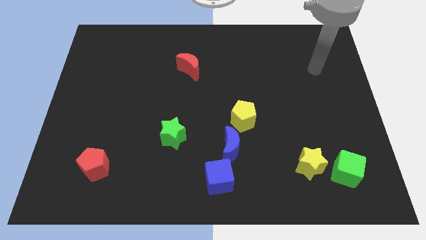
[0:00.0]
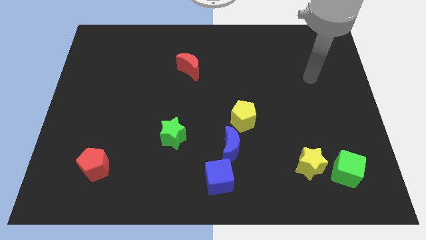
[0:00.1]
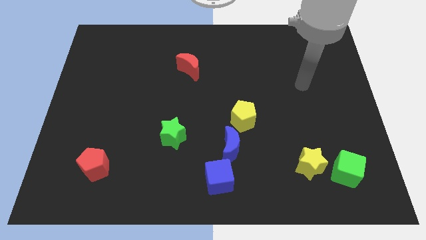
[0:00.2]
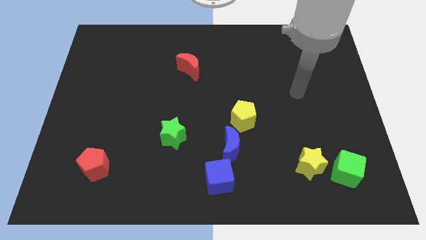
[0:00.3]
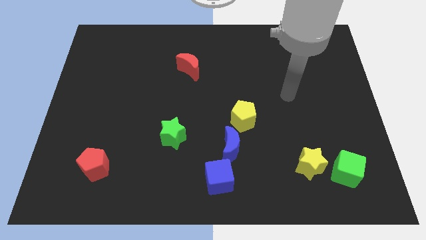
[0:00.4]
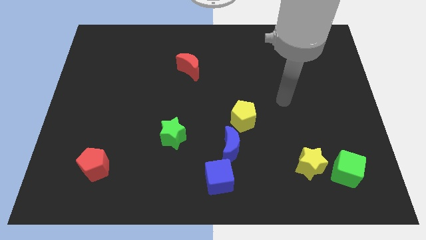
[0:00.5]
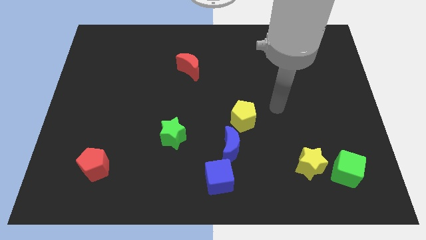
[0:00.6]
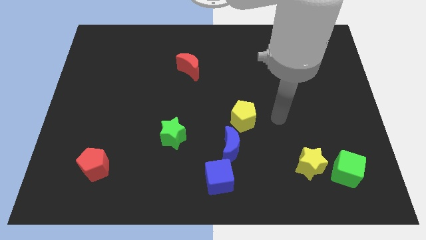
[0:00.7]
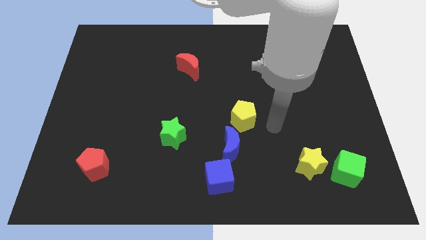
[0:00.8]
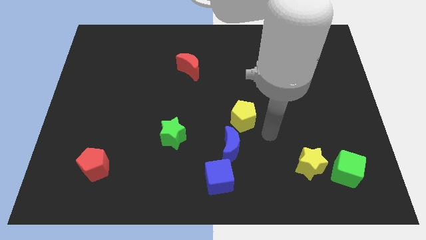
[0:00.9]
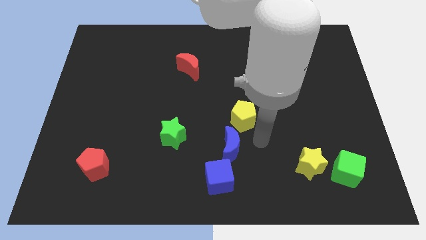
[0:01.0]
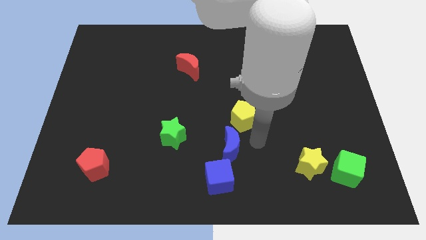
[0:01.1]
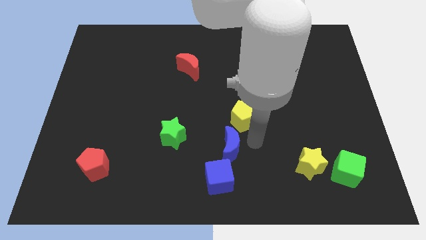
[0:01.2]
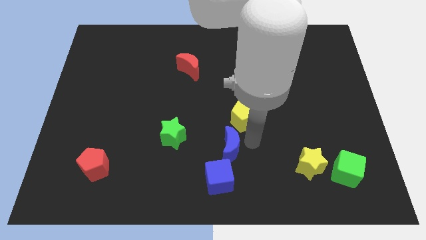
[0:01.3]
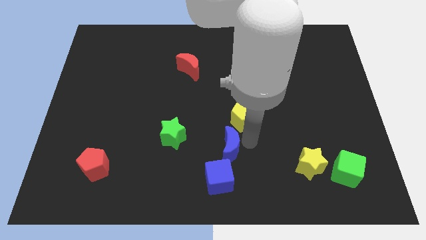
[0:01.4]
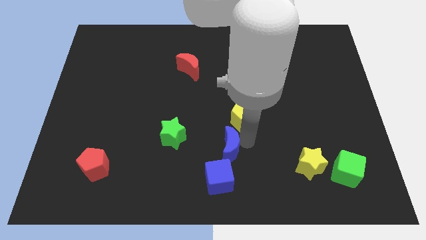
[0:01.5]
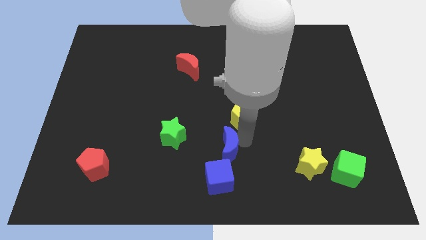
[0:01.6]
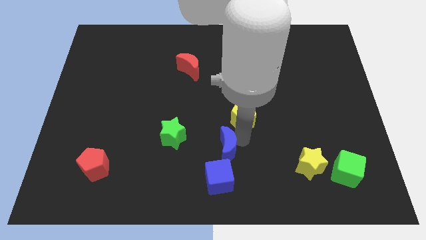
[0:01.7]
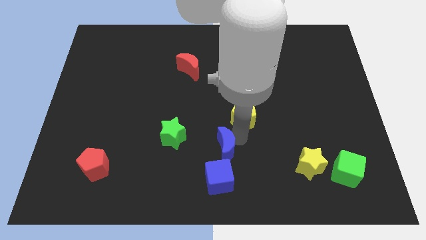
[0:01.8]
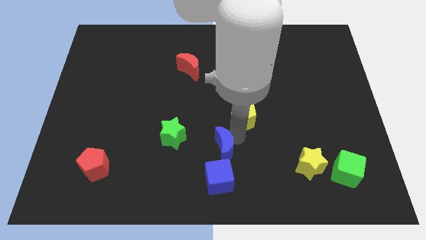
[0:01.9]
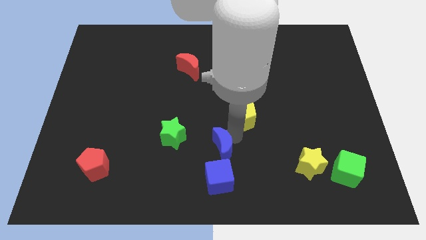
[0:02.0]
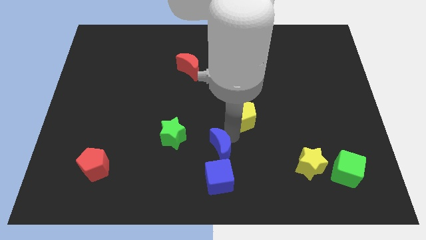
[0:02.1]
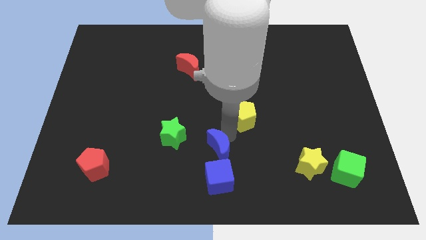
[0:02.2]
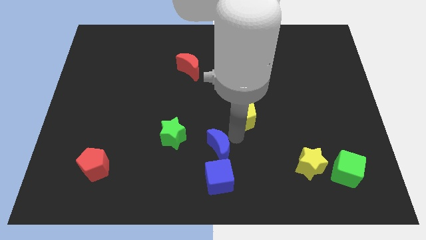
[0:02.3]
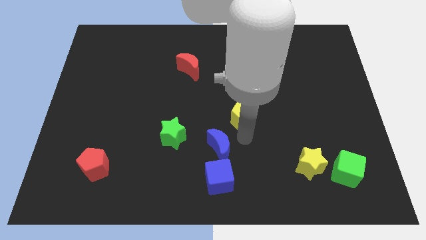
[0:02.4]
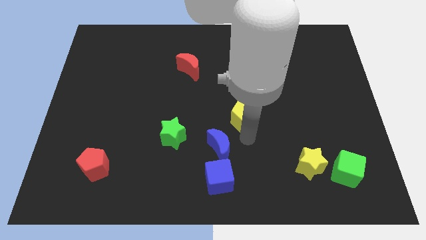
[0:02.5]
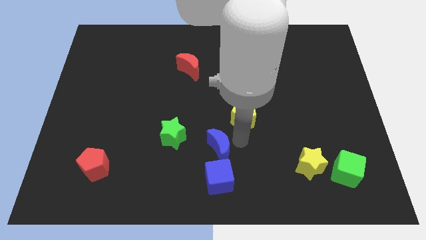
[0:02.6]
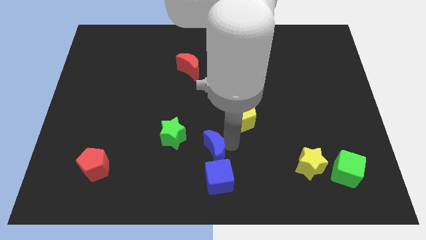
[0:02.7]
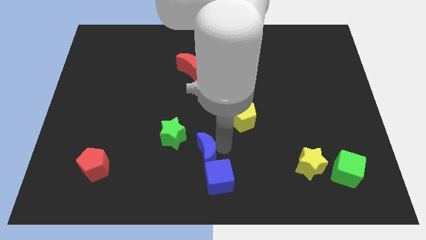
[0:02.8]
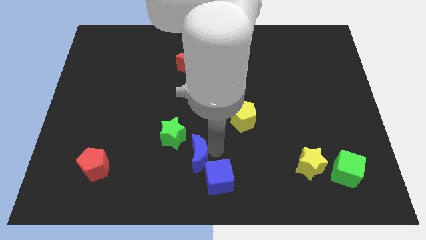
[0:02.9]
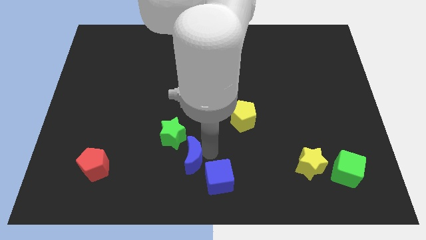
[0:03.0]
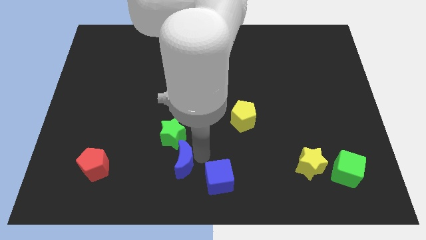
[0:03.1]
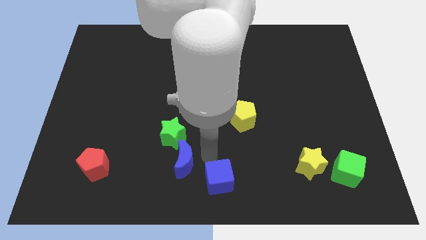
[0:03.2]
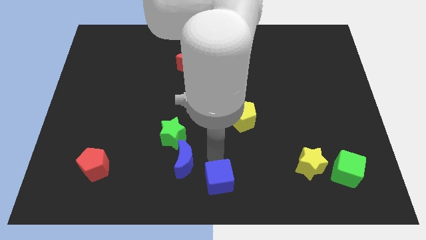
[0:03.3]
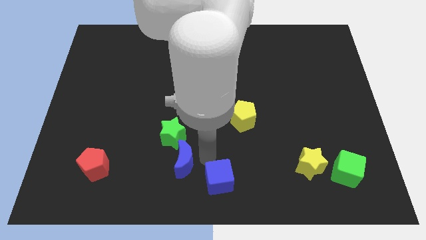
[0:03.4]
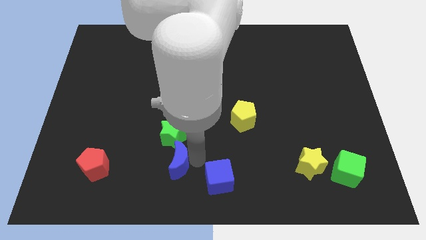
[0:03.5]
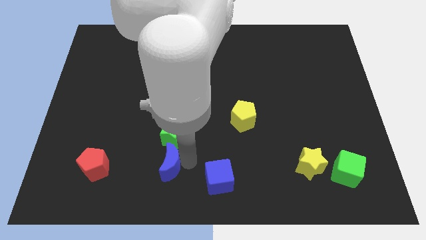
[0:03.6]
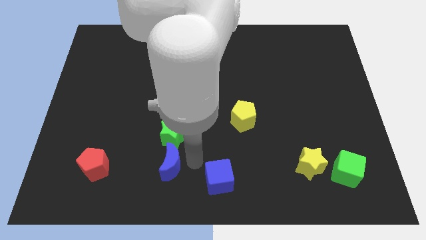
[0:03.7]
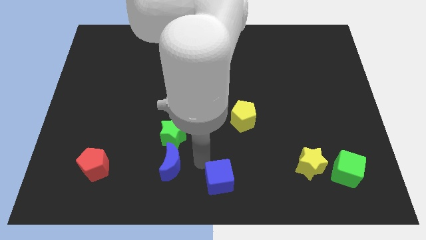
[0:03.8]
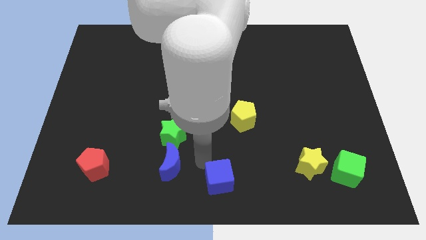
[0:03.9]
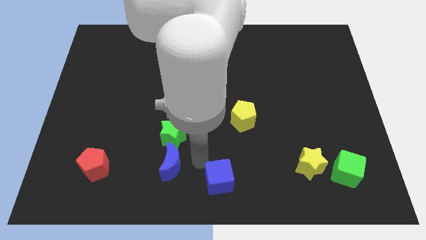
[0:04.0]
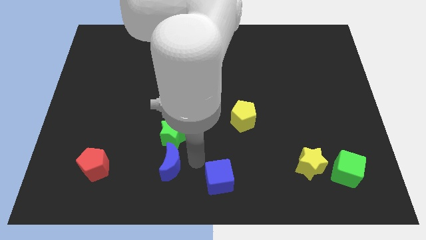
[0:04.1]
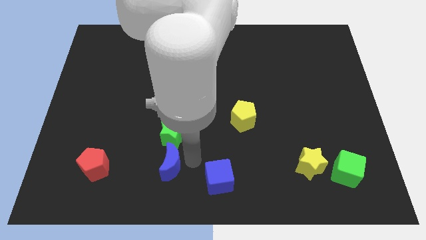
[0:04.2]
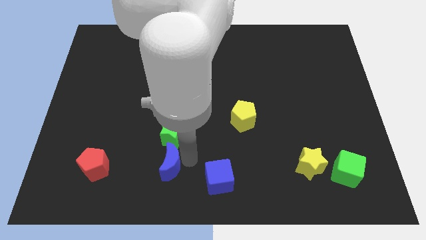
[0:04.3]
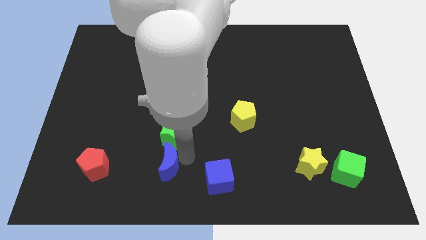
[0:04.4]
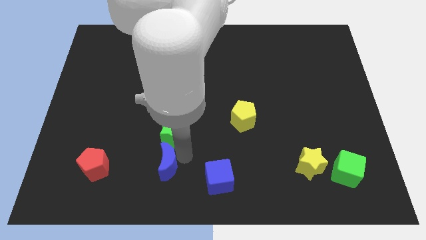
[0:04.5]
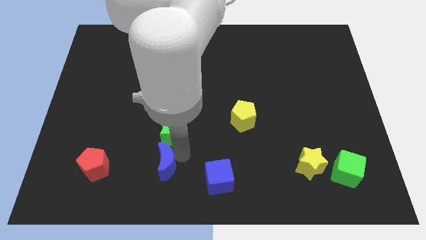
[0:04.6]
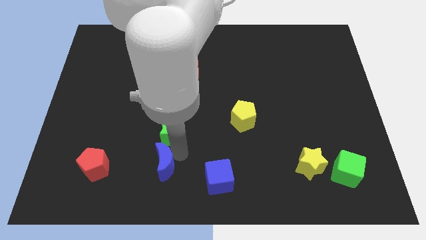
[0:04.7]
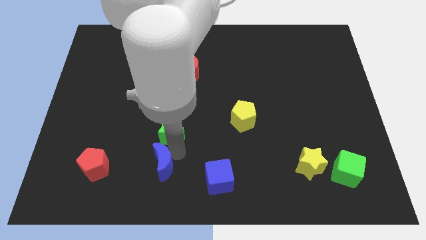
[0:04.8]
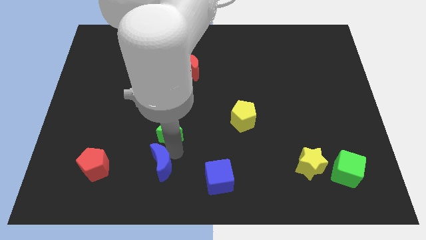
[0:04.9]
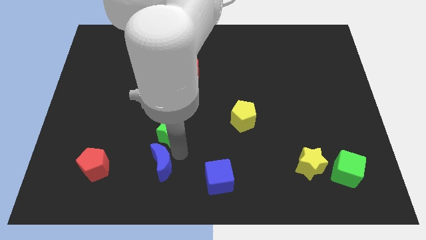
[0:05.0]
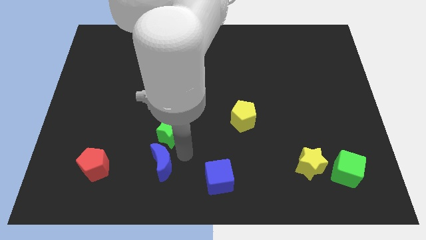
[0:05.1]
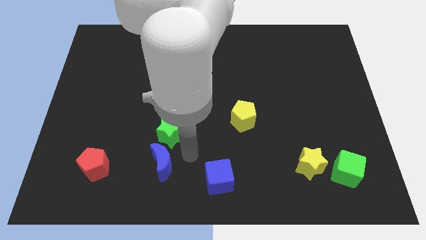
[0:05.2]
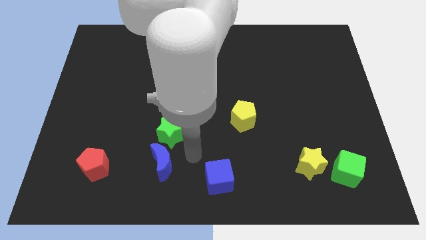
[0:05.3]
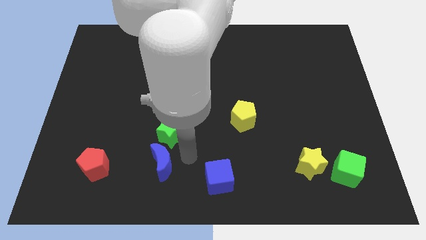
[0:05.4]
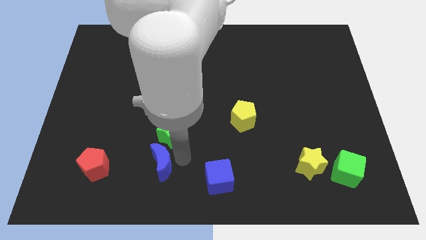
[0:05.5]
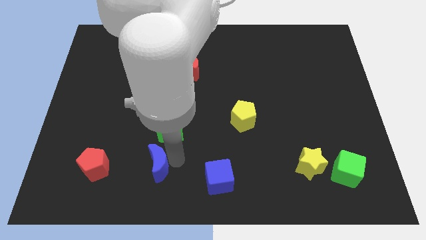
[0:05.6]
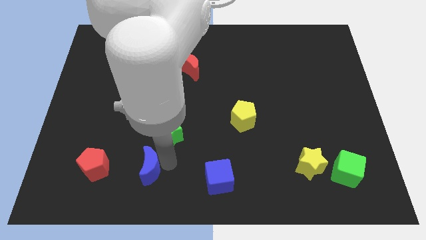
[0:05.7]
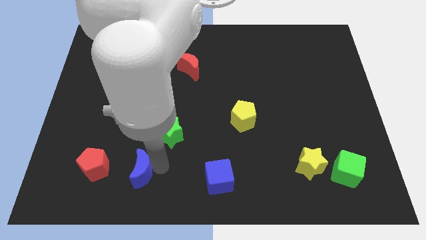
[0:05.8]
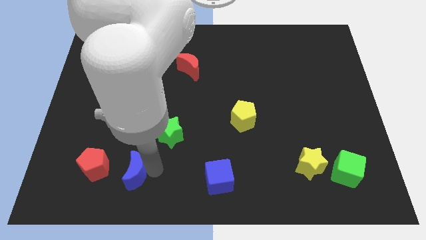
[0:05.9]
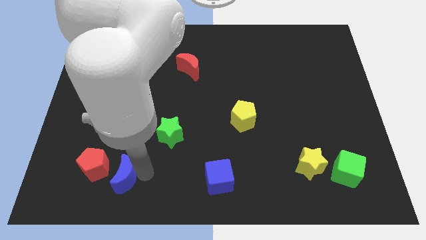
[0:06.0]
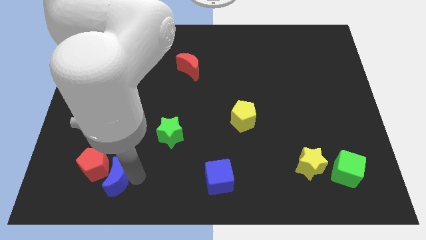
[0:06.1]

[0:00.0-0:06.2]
put the blue moon towards the red pentagon
